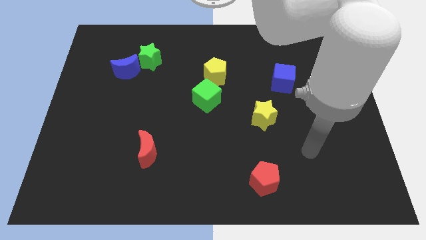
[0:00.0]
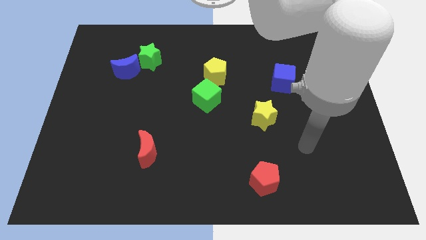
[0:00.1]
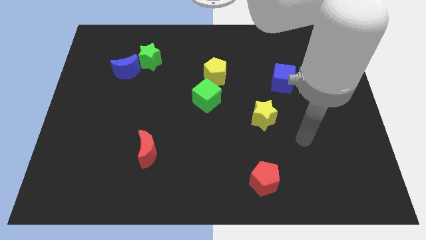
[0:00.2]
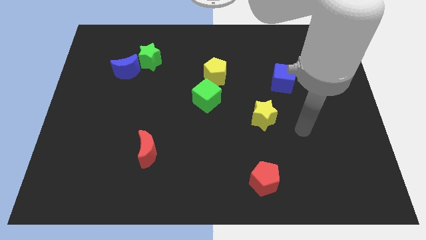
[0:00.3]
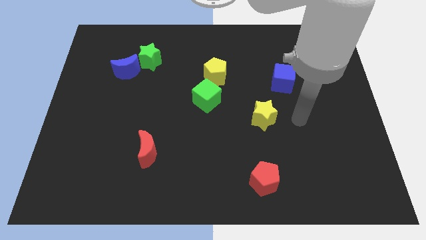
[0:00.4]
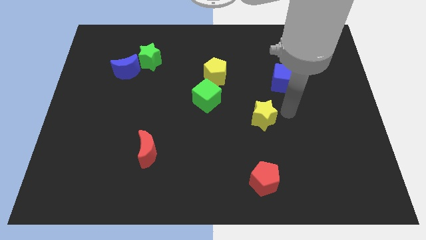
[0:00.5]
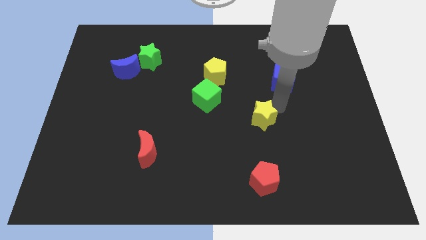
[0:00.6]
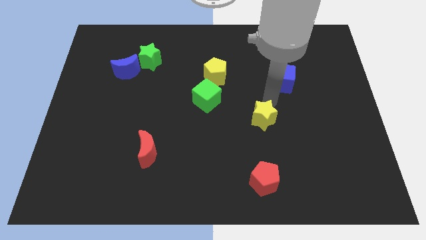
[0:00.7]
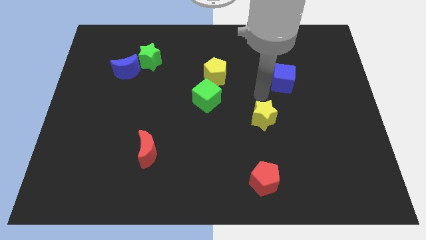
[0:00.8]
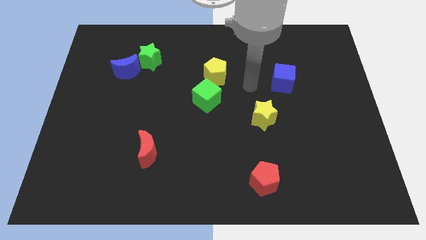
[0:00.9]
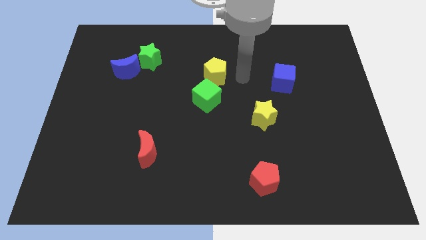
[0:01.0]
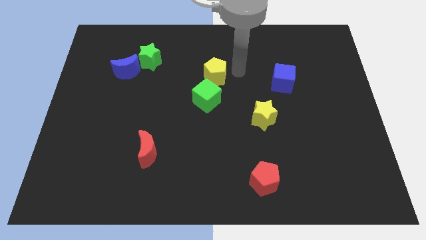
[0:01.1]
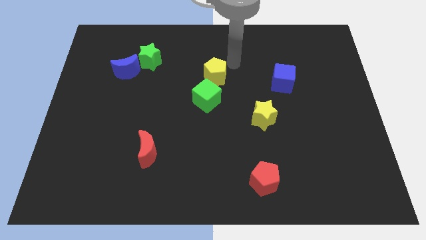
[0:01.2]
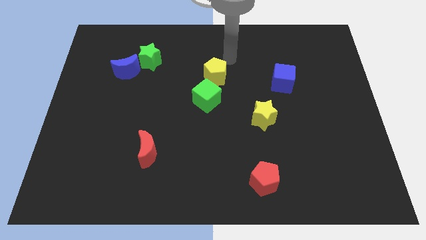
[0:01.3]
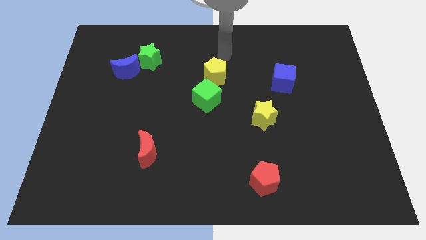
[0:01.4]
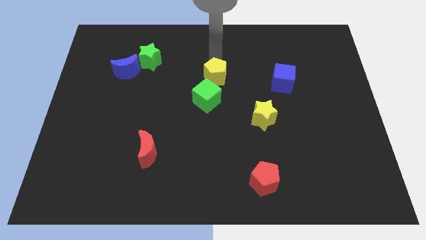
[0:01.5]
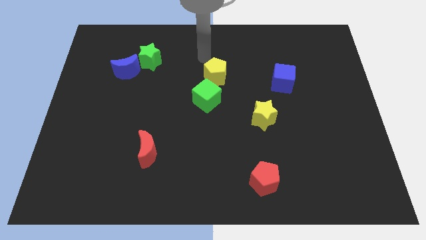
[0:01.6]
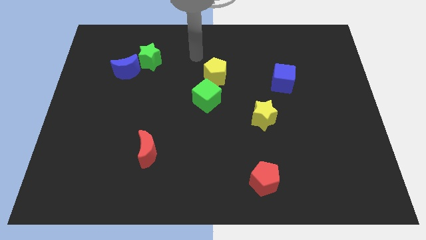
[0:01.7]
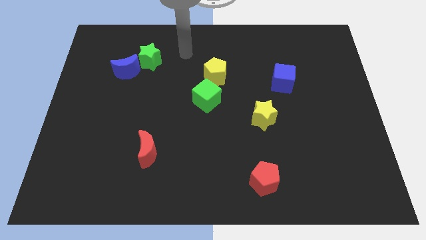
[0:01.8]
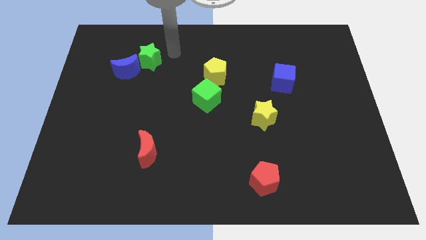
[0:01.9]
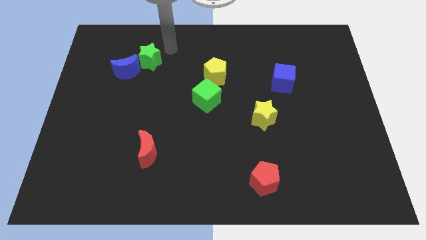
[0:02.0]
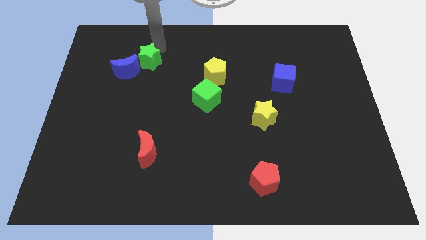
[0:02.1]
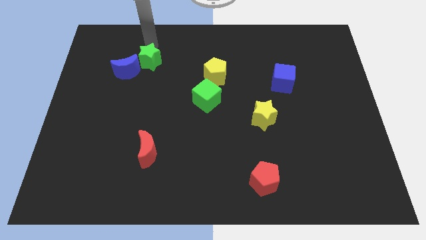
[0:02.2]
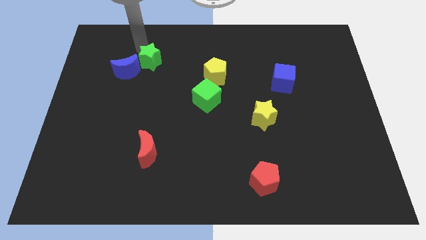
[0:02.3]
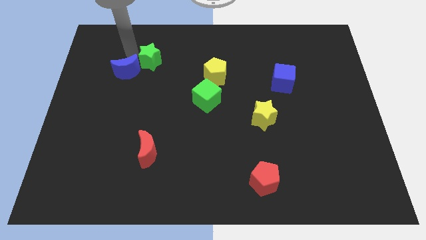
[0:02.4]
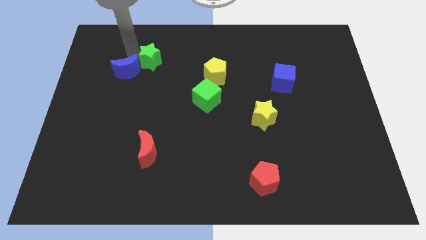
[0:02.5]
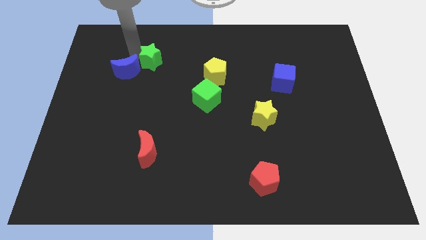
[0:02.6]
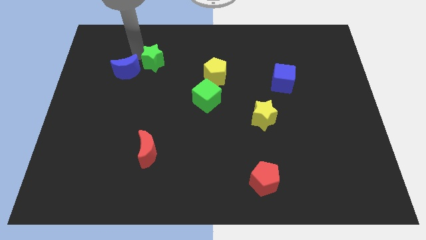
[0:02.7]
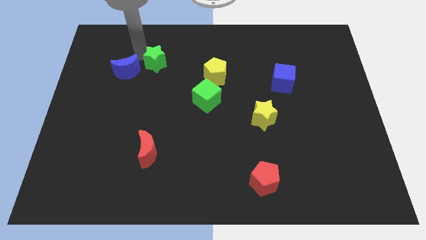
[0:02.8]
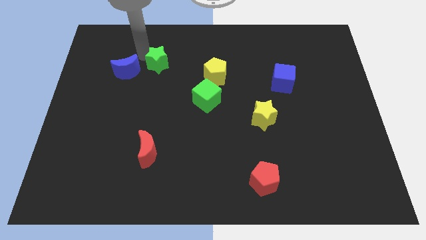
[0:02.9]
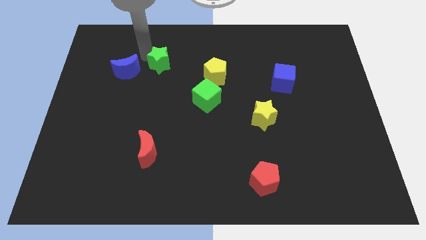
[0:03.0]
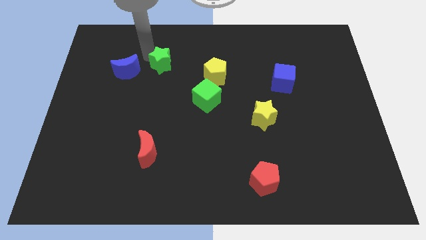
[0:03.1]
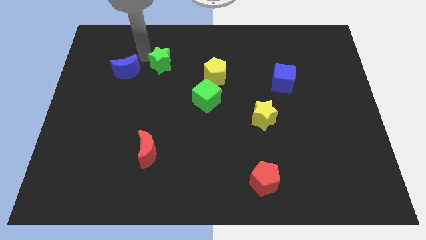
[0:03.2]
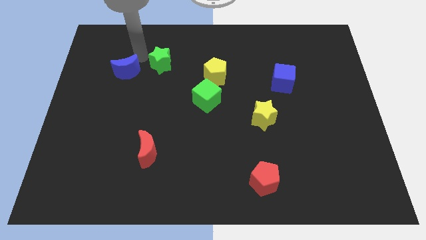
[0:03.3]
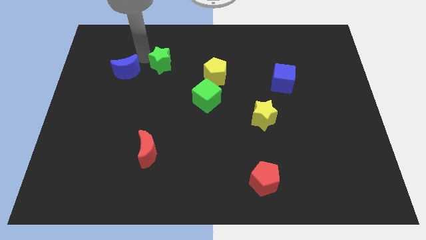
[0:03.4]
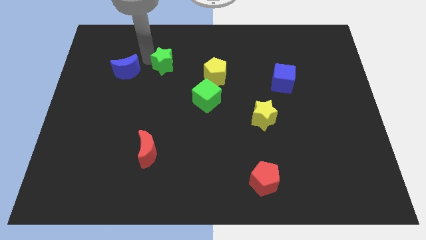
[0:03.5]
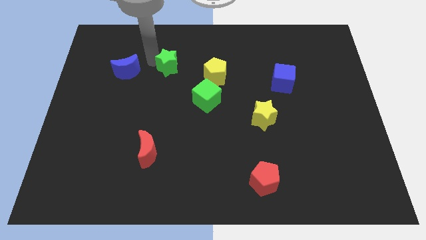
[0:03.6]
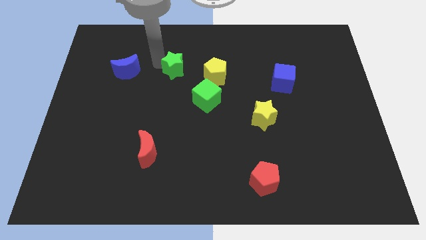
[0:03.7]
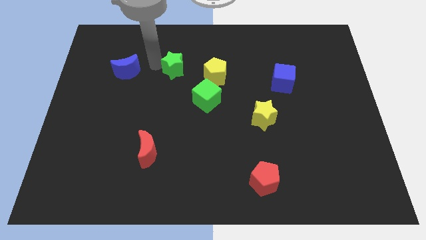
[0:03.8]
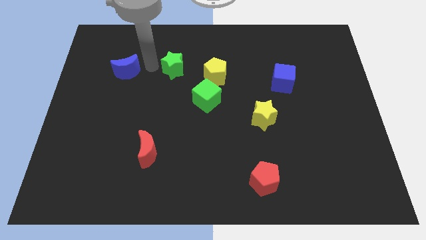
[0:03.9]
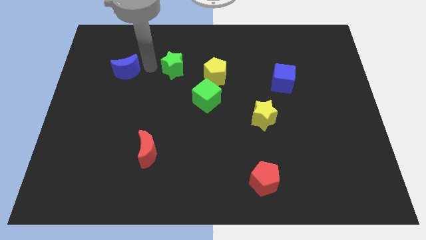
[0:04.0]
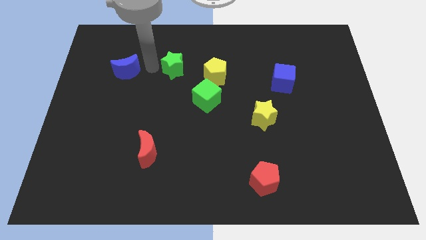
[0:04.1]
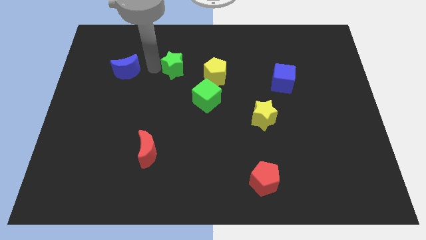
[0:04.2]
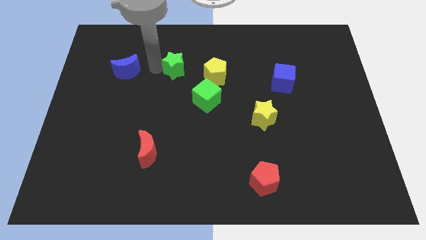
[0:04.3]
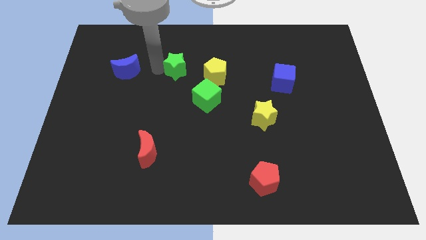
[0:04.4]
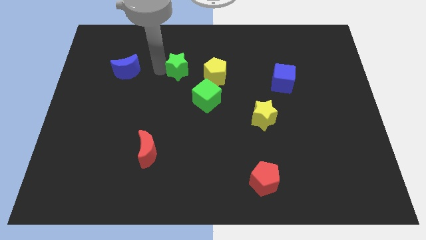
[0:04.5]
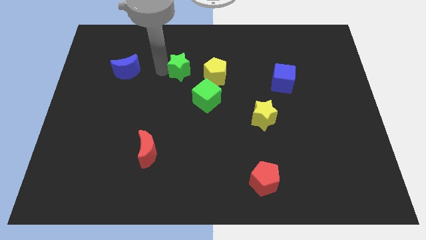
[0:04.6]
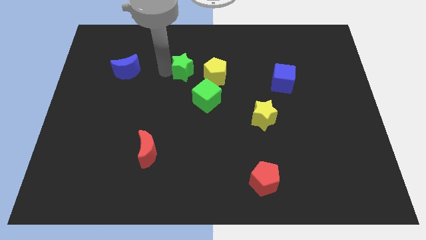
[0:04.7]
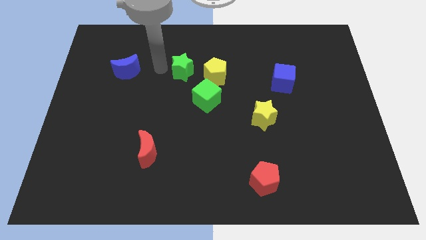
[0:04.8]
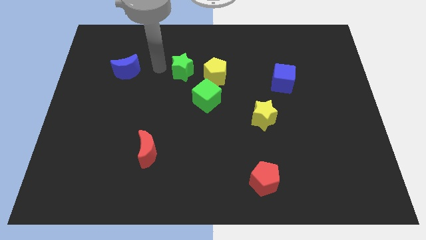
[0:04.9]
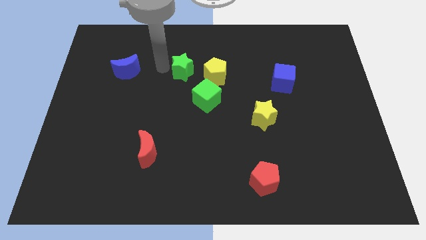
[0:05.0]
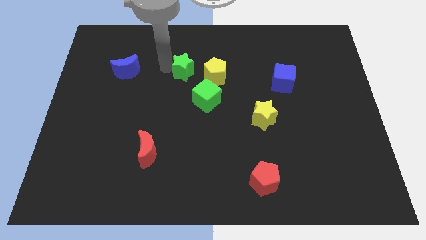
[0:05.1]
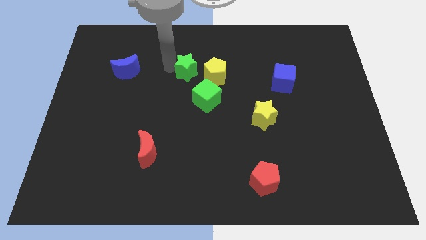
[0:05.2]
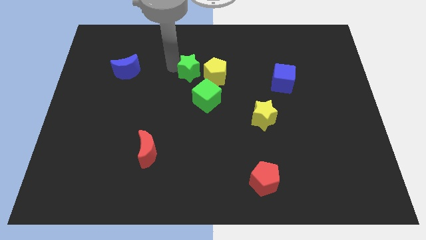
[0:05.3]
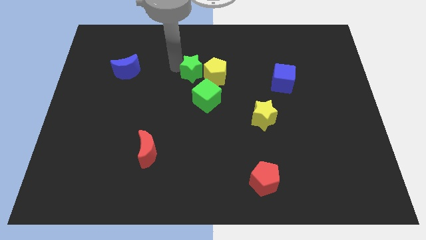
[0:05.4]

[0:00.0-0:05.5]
move the green star to the yellow pentagon

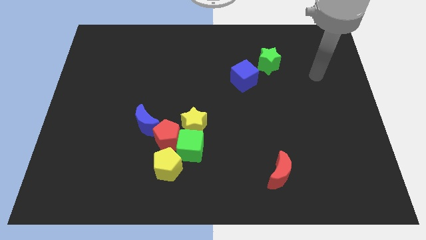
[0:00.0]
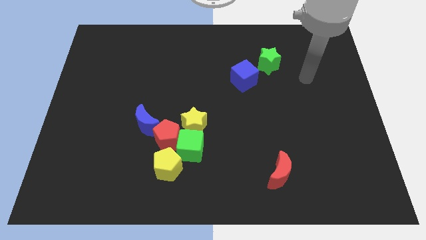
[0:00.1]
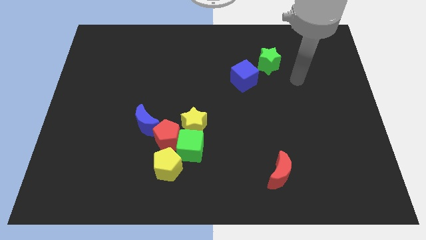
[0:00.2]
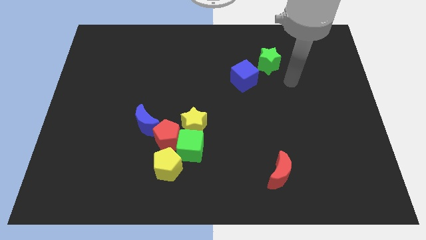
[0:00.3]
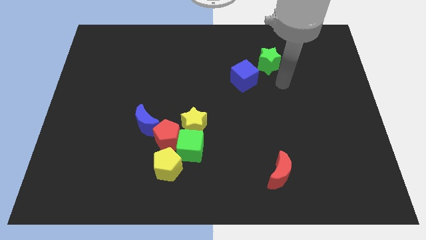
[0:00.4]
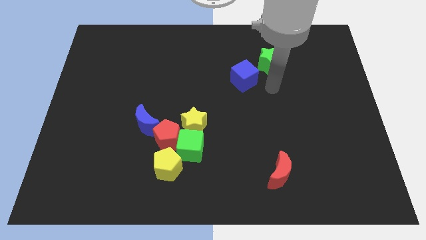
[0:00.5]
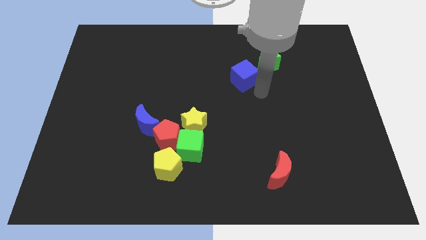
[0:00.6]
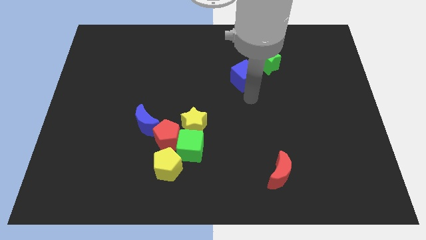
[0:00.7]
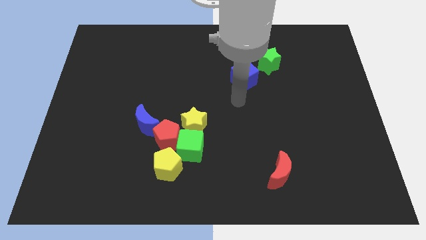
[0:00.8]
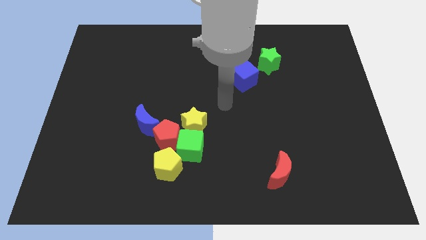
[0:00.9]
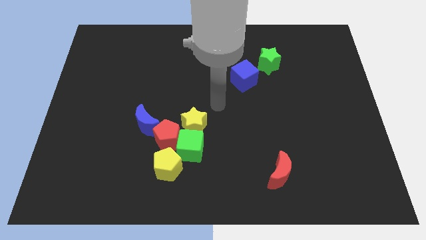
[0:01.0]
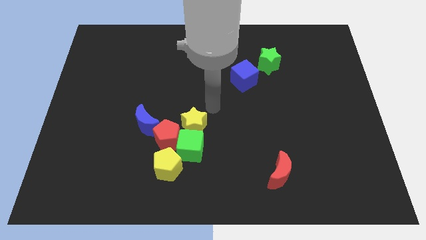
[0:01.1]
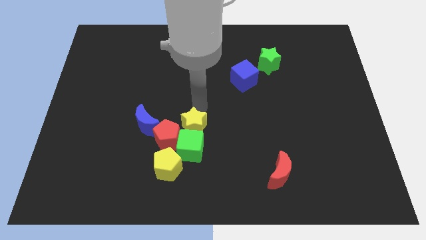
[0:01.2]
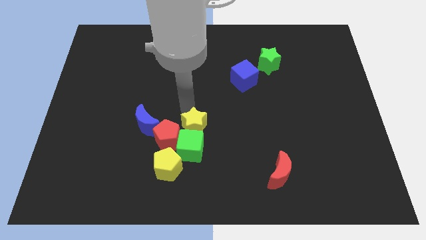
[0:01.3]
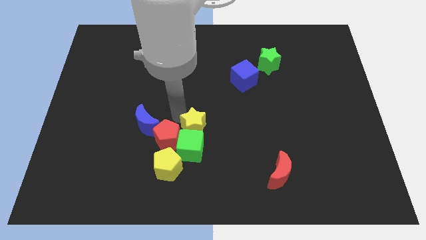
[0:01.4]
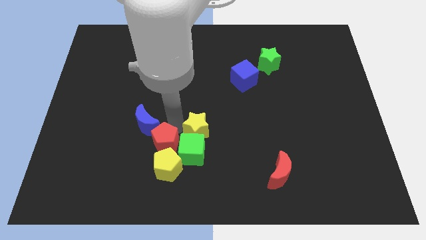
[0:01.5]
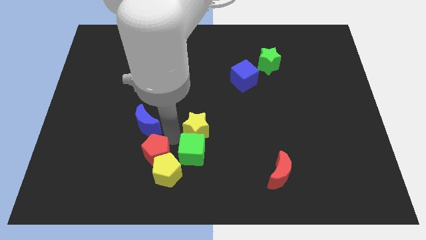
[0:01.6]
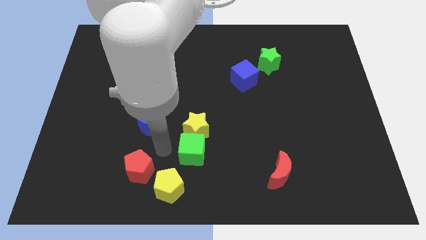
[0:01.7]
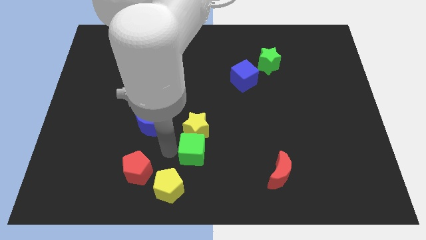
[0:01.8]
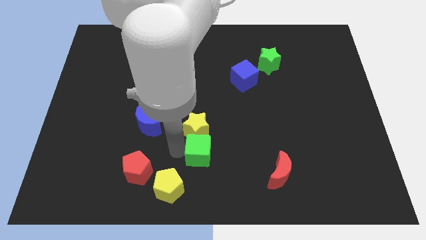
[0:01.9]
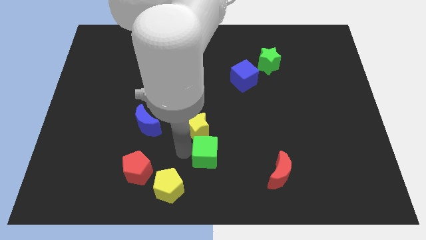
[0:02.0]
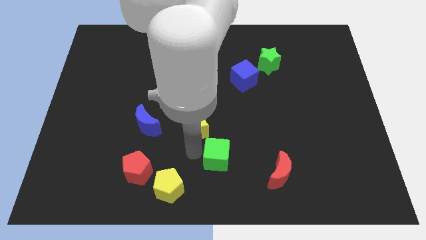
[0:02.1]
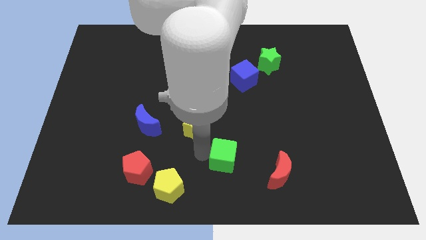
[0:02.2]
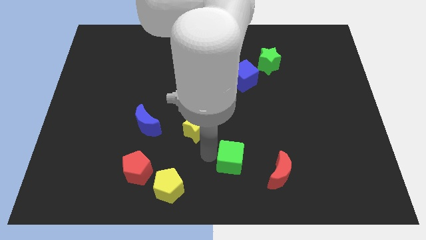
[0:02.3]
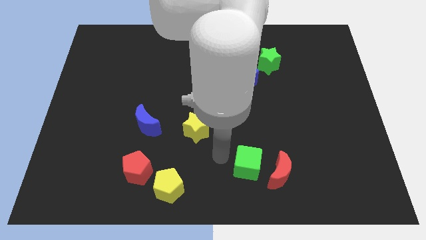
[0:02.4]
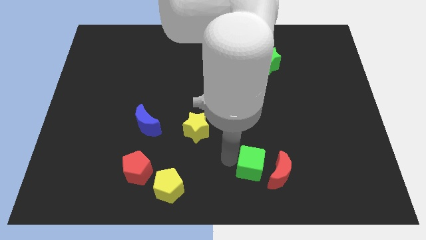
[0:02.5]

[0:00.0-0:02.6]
put the green cube close to the red moon
